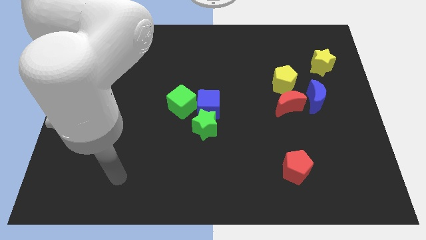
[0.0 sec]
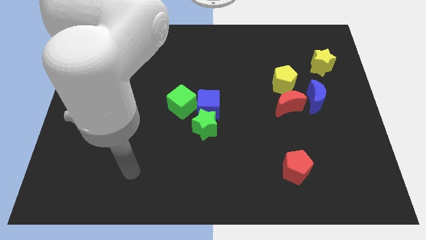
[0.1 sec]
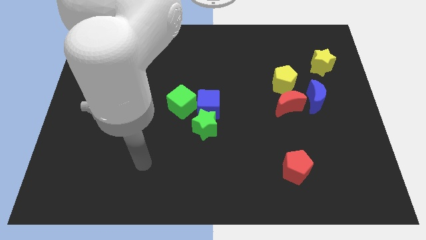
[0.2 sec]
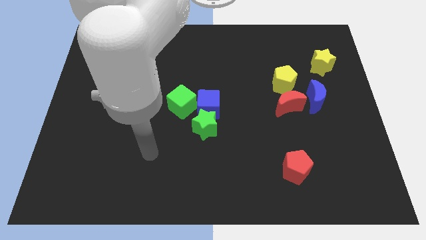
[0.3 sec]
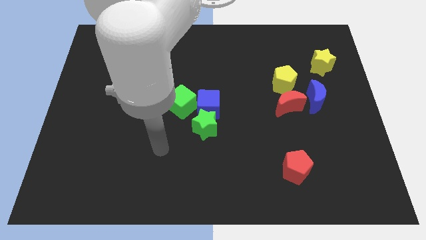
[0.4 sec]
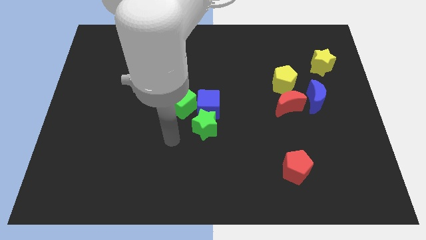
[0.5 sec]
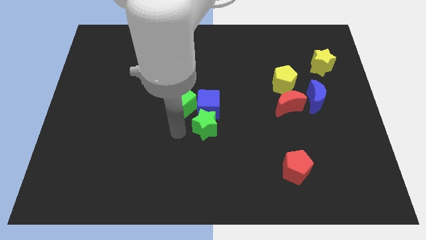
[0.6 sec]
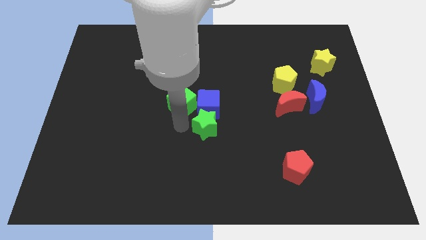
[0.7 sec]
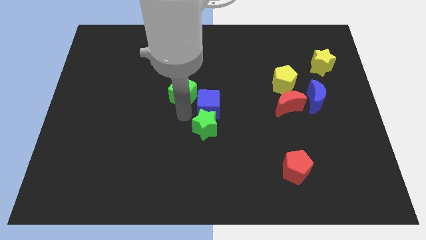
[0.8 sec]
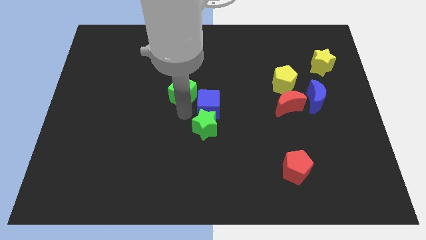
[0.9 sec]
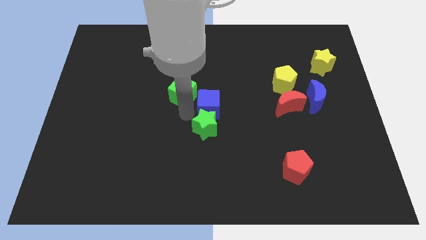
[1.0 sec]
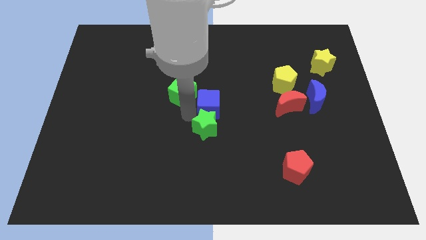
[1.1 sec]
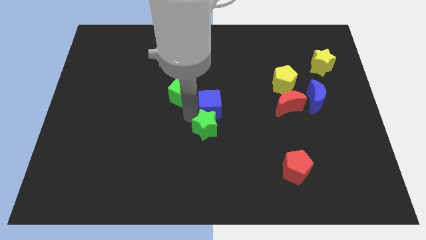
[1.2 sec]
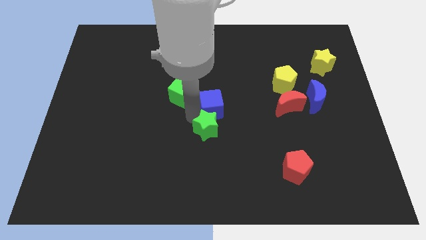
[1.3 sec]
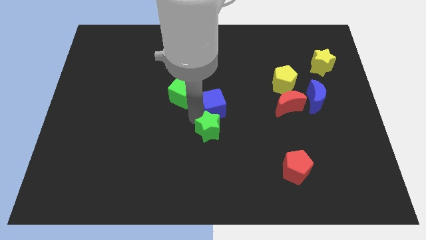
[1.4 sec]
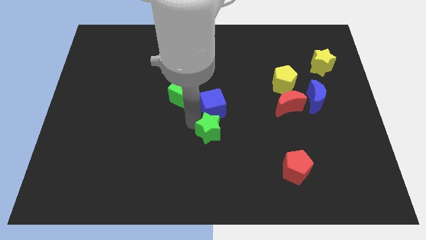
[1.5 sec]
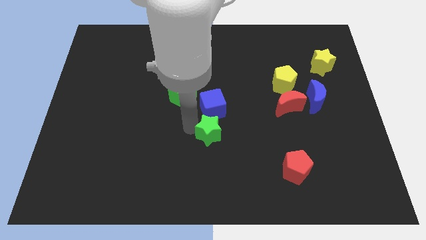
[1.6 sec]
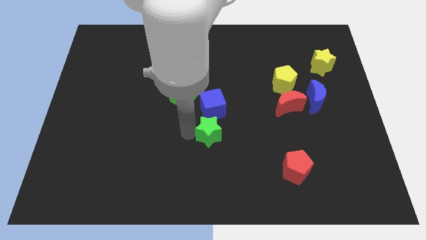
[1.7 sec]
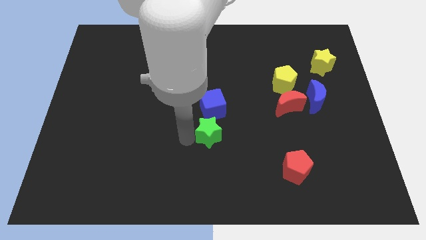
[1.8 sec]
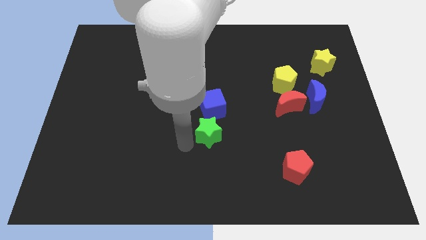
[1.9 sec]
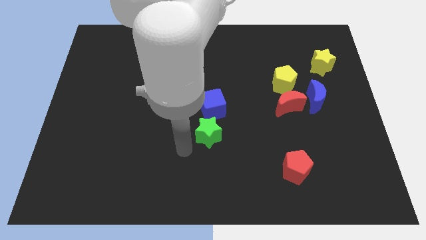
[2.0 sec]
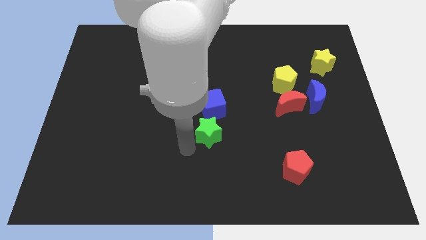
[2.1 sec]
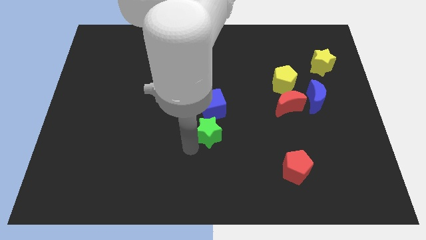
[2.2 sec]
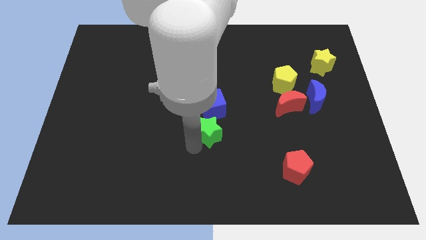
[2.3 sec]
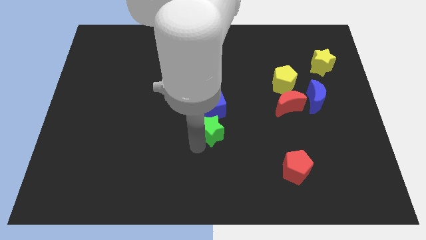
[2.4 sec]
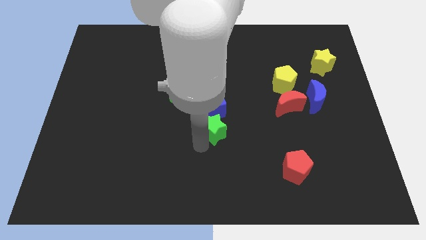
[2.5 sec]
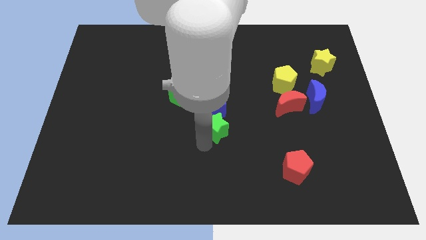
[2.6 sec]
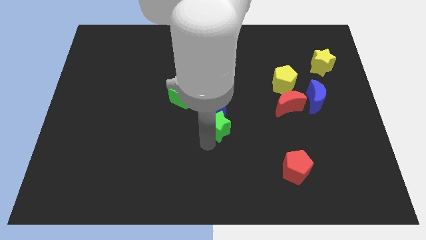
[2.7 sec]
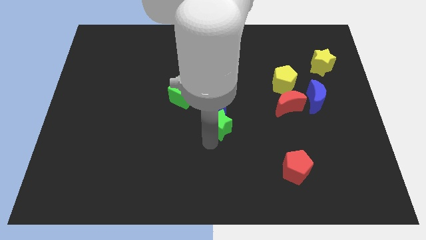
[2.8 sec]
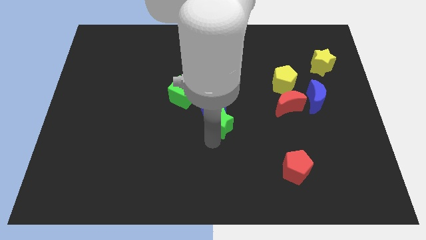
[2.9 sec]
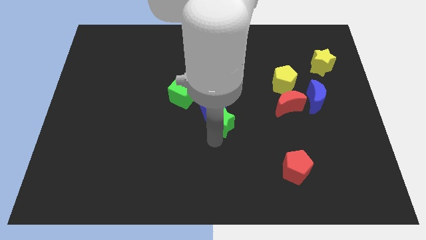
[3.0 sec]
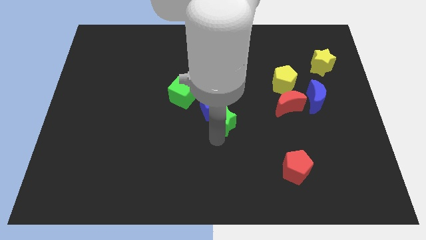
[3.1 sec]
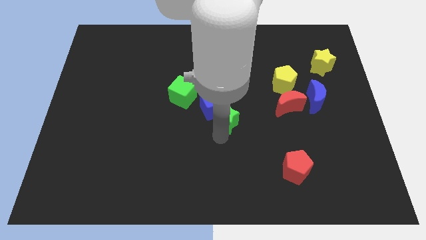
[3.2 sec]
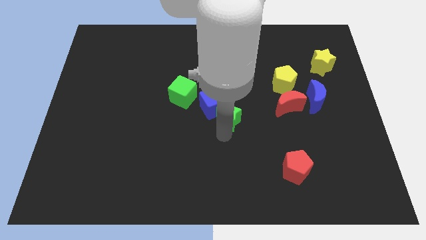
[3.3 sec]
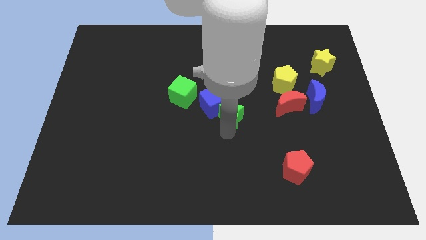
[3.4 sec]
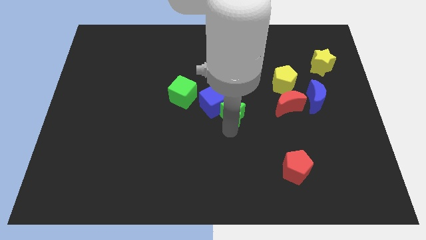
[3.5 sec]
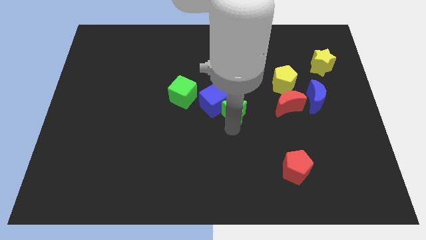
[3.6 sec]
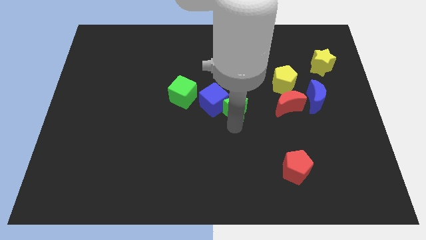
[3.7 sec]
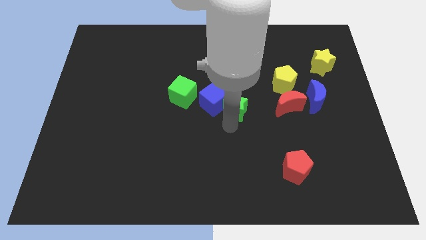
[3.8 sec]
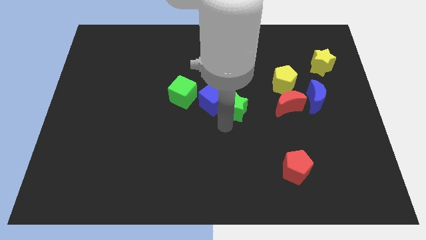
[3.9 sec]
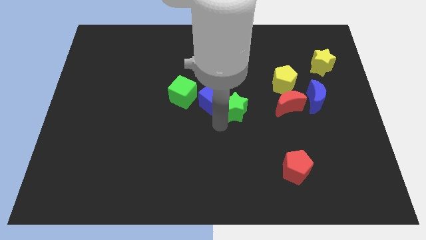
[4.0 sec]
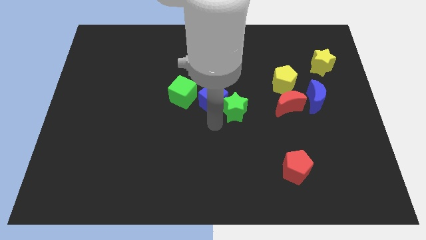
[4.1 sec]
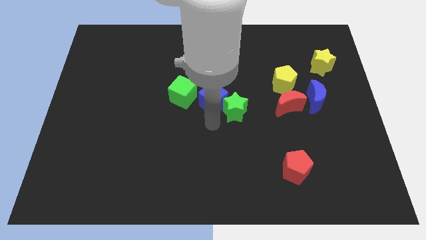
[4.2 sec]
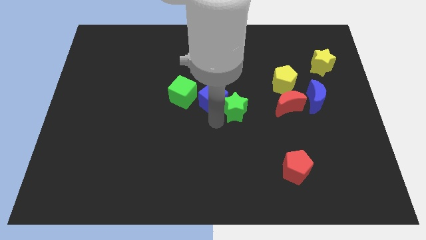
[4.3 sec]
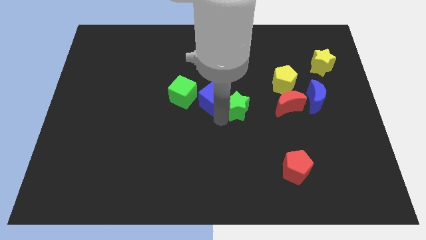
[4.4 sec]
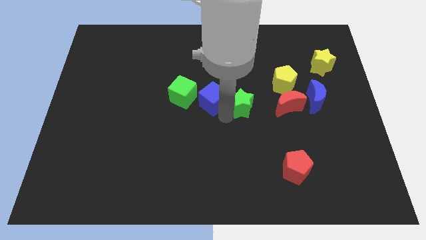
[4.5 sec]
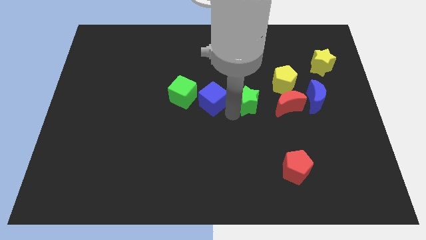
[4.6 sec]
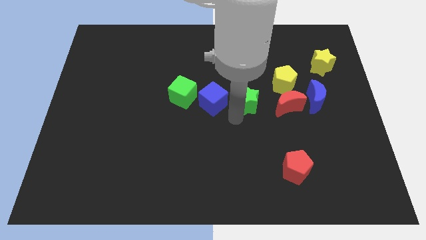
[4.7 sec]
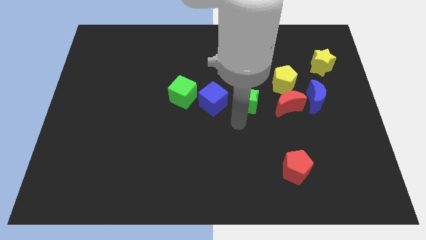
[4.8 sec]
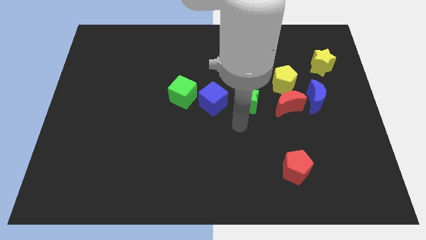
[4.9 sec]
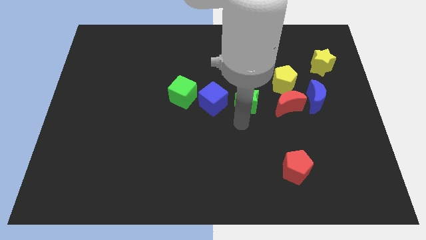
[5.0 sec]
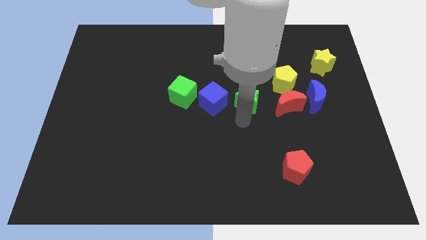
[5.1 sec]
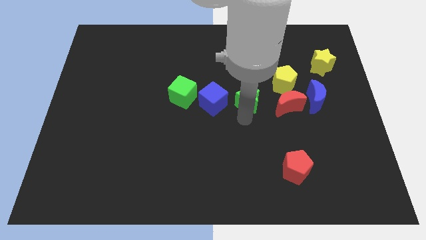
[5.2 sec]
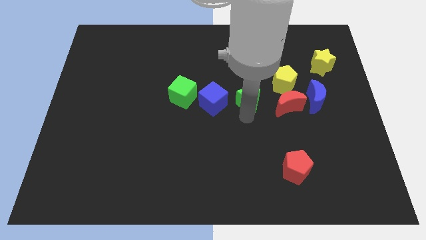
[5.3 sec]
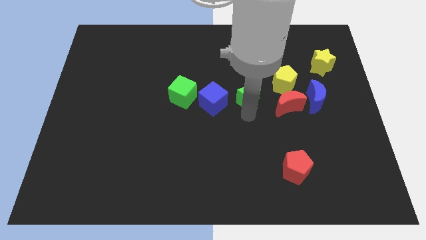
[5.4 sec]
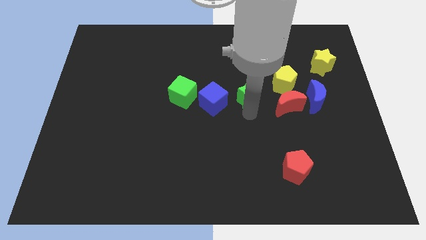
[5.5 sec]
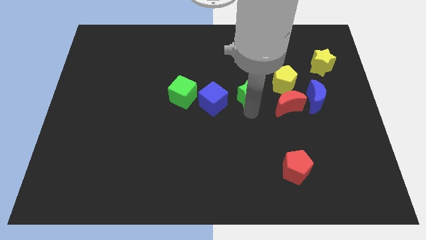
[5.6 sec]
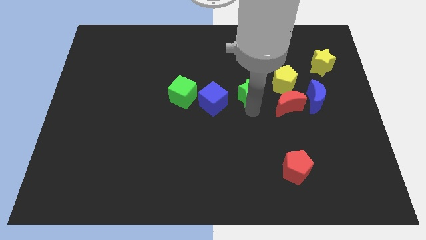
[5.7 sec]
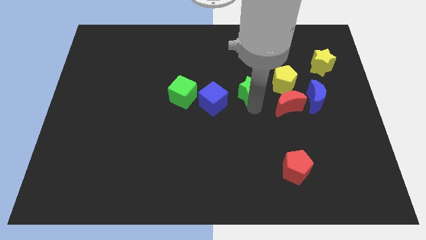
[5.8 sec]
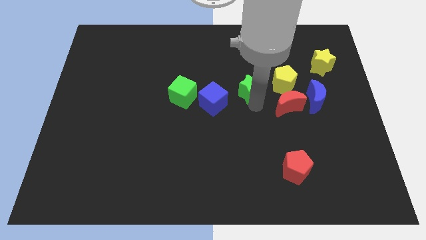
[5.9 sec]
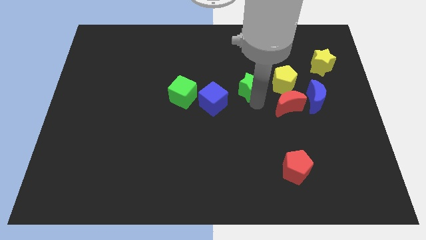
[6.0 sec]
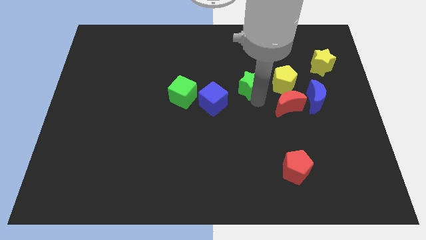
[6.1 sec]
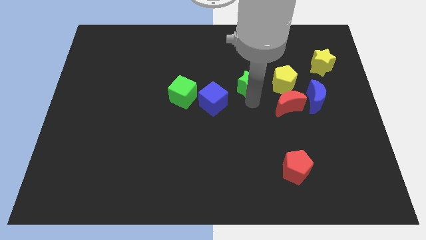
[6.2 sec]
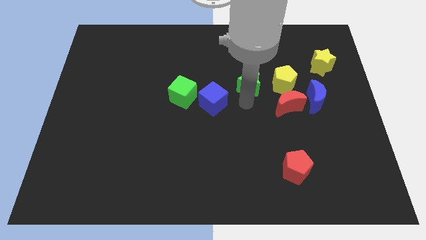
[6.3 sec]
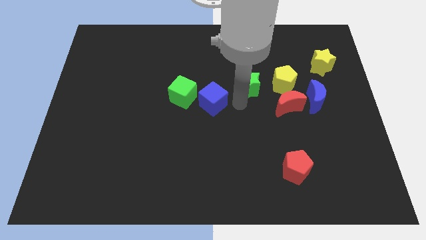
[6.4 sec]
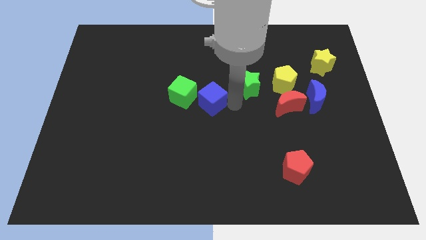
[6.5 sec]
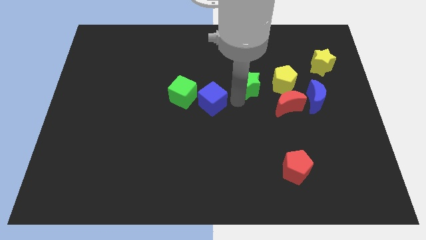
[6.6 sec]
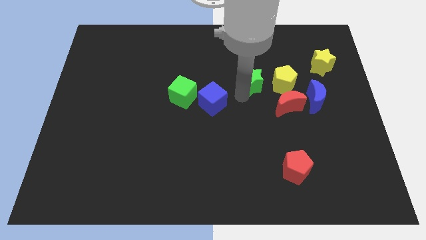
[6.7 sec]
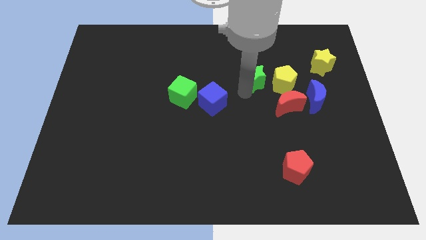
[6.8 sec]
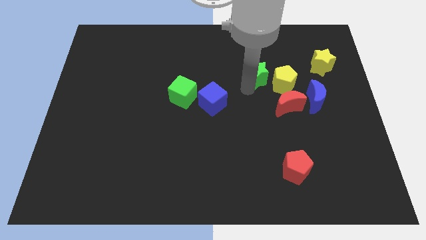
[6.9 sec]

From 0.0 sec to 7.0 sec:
move the green star diagonally upwards and to the right

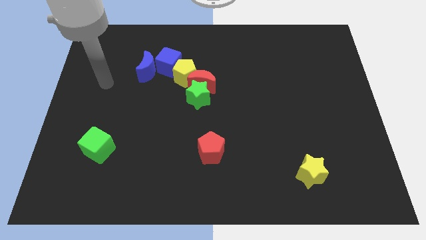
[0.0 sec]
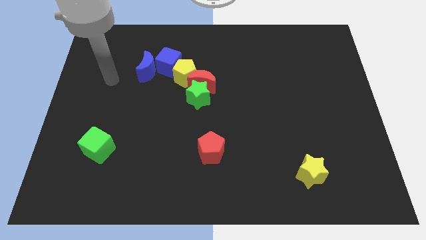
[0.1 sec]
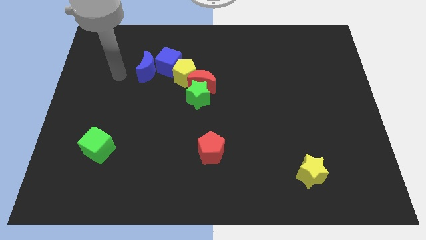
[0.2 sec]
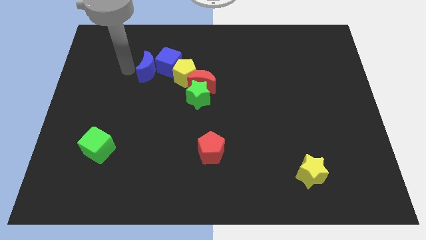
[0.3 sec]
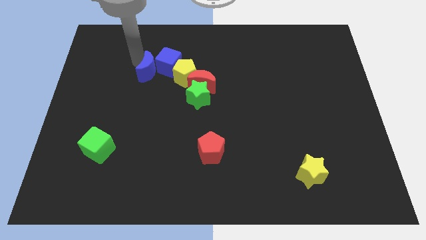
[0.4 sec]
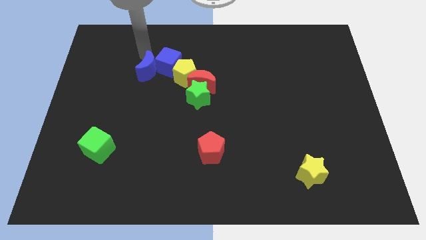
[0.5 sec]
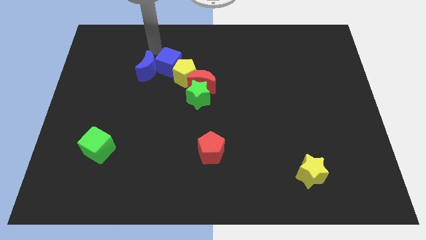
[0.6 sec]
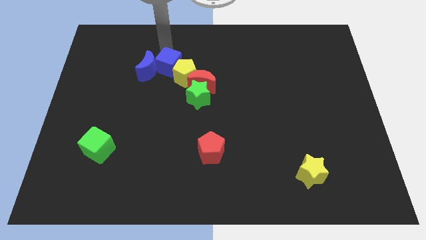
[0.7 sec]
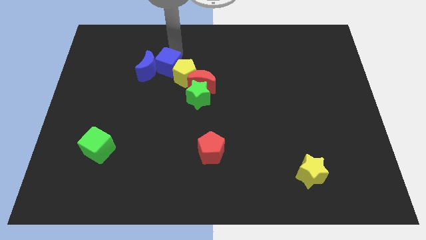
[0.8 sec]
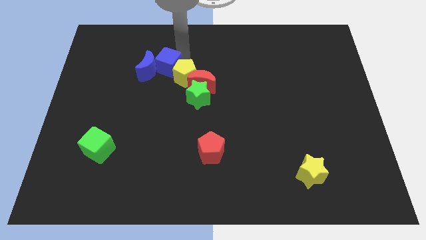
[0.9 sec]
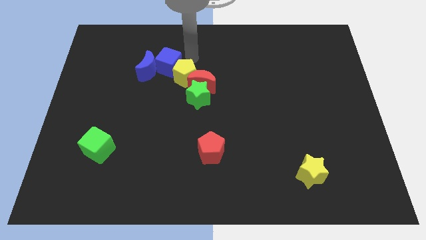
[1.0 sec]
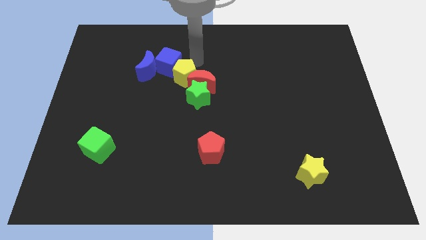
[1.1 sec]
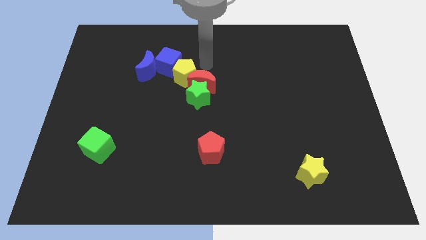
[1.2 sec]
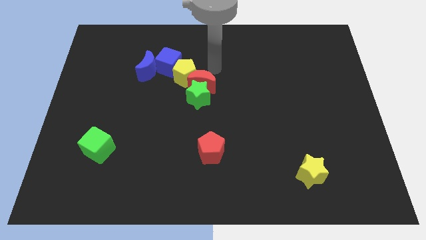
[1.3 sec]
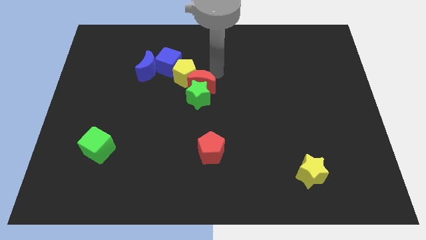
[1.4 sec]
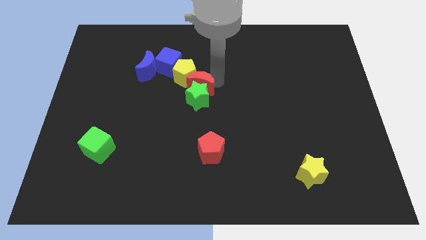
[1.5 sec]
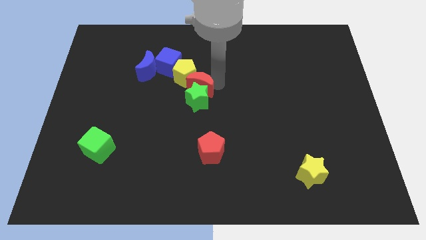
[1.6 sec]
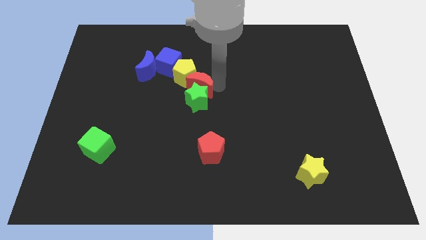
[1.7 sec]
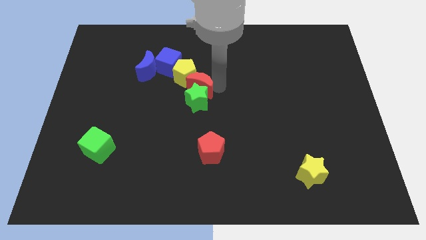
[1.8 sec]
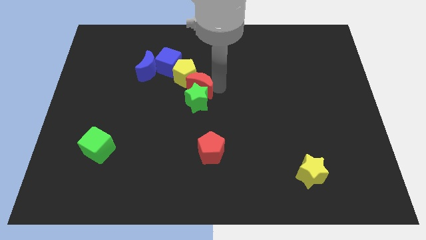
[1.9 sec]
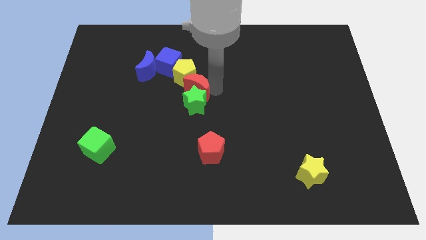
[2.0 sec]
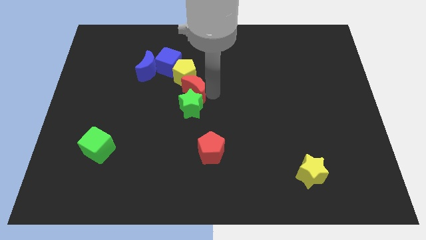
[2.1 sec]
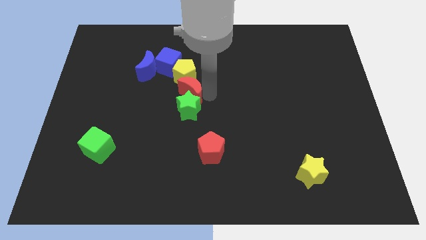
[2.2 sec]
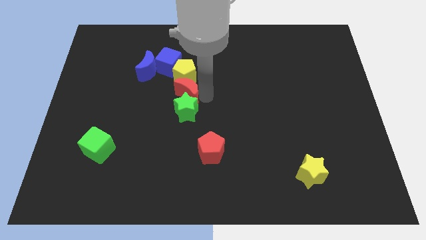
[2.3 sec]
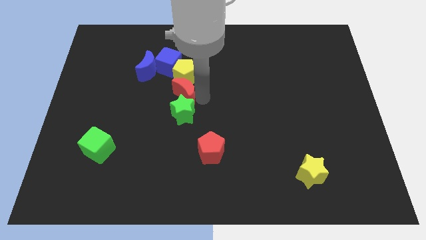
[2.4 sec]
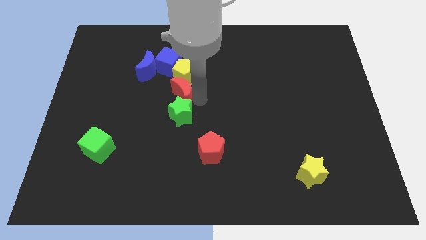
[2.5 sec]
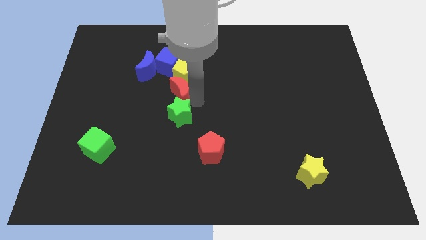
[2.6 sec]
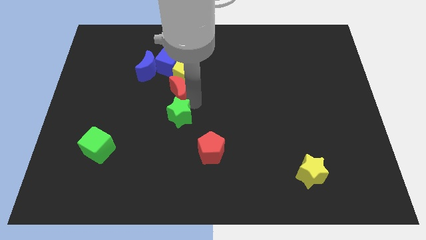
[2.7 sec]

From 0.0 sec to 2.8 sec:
slide the green star slightly downwards and then left
